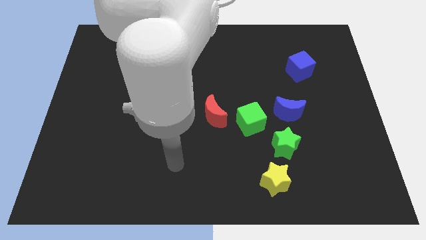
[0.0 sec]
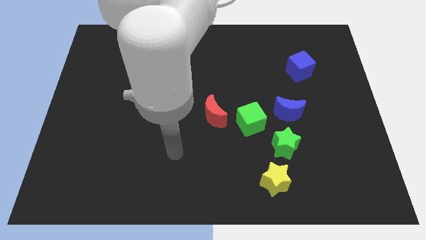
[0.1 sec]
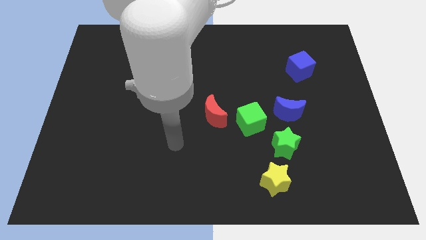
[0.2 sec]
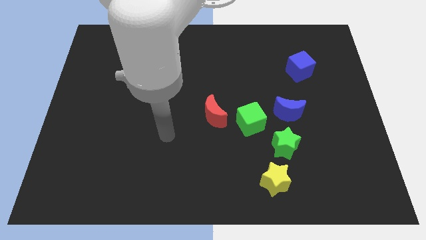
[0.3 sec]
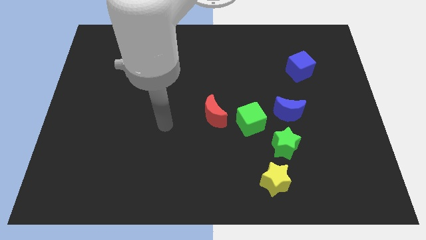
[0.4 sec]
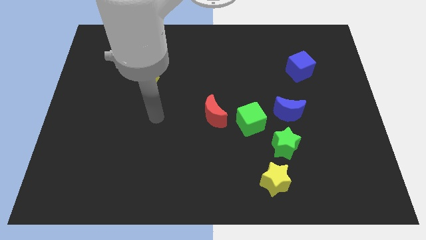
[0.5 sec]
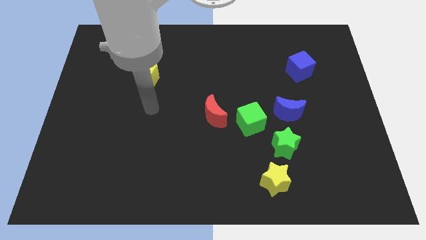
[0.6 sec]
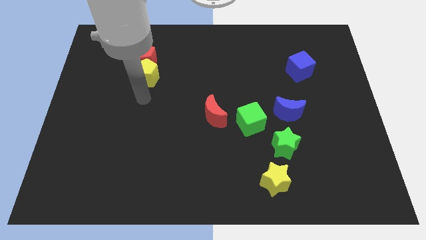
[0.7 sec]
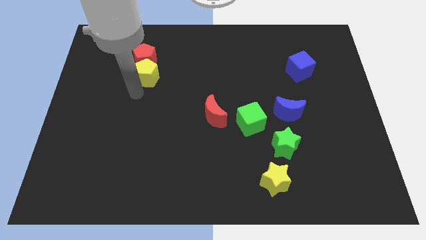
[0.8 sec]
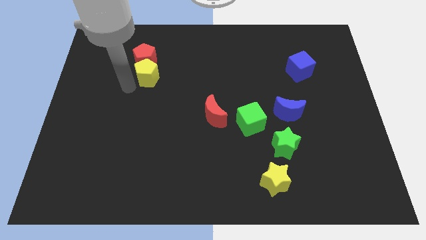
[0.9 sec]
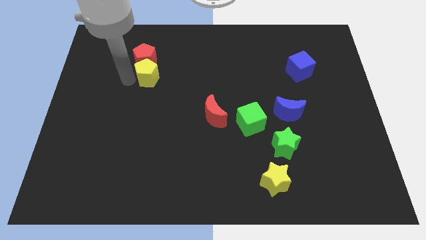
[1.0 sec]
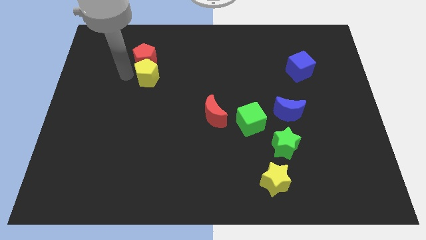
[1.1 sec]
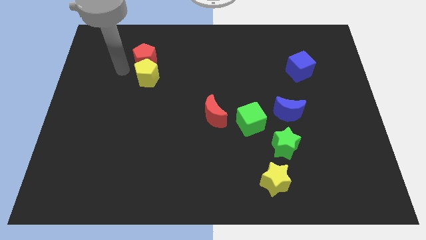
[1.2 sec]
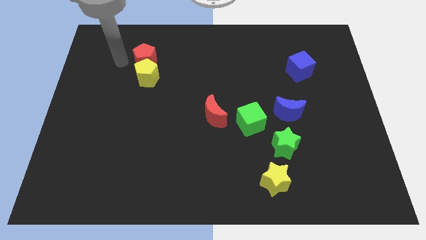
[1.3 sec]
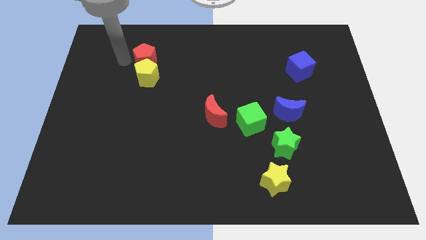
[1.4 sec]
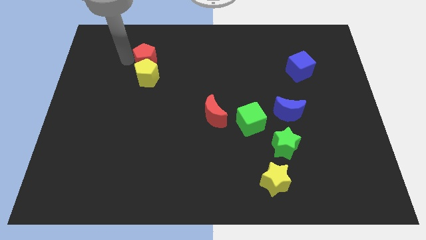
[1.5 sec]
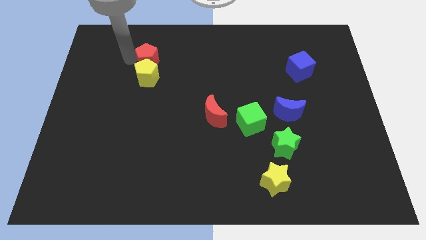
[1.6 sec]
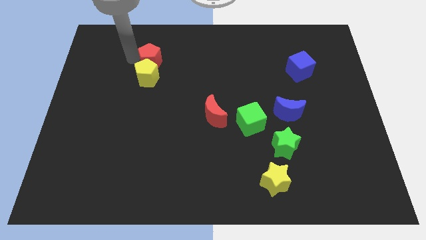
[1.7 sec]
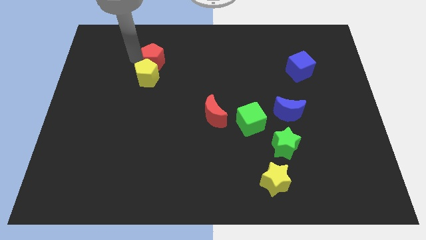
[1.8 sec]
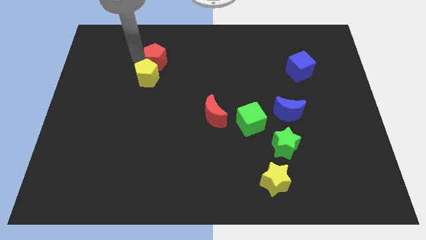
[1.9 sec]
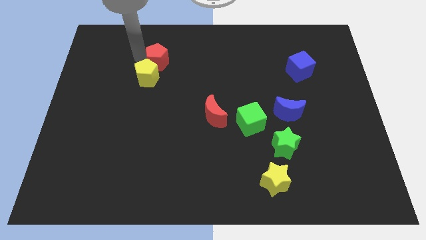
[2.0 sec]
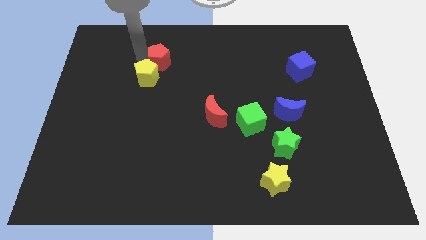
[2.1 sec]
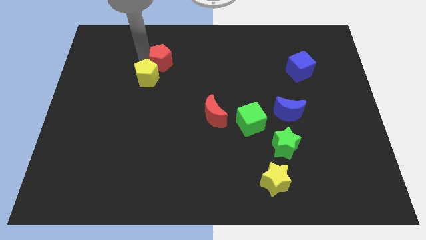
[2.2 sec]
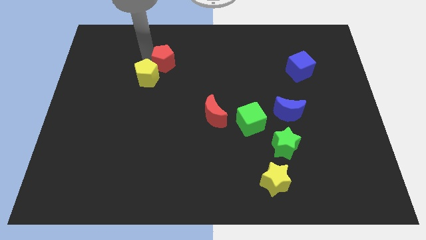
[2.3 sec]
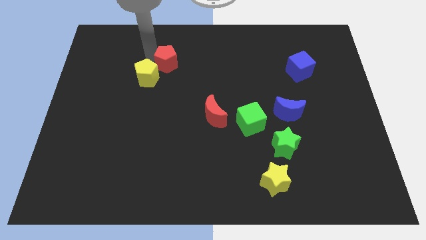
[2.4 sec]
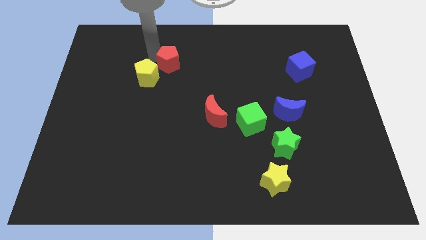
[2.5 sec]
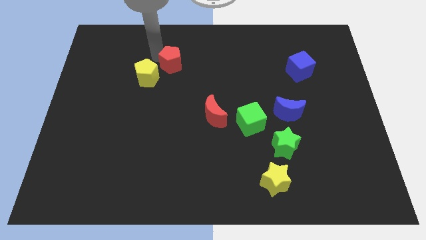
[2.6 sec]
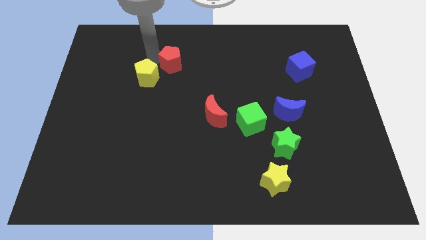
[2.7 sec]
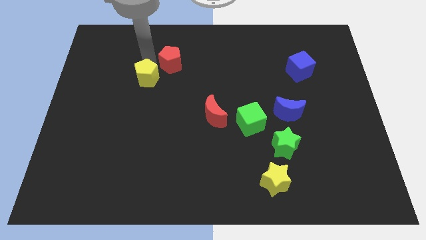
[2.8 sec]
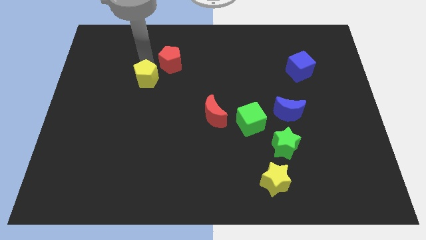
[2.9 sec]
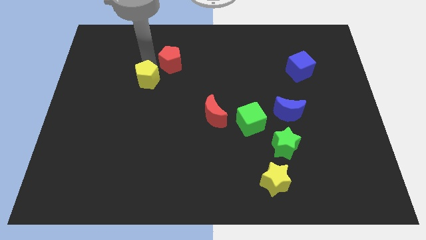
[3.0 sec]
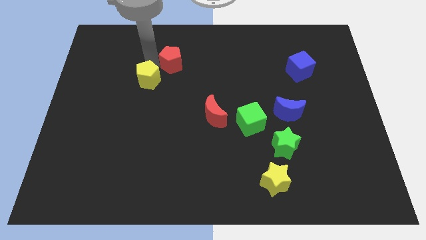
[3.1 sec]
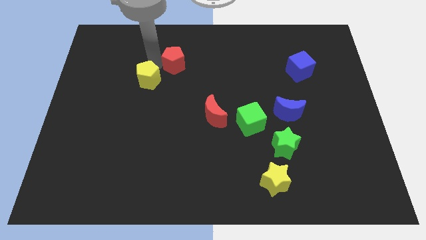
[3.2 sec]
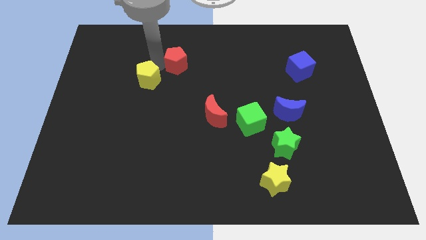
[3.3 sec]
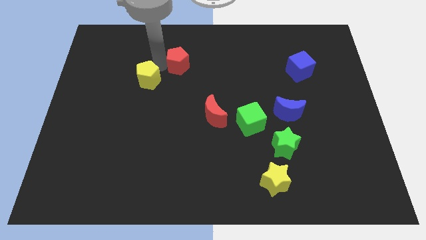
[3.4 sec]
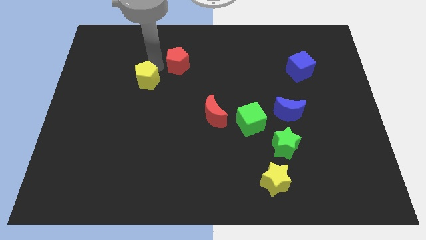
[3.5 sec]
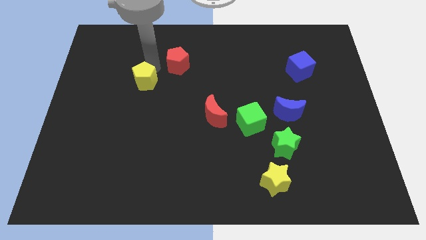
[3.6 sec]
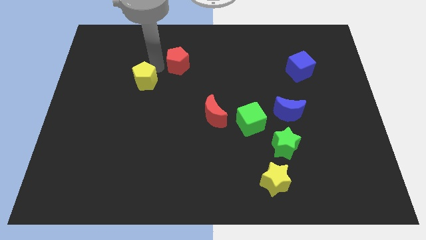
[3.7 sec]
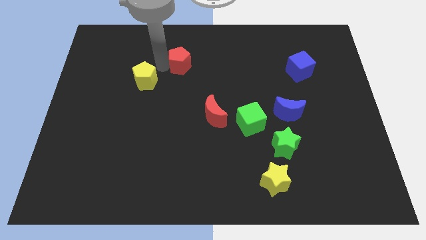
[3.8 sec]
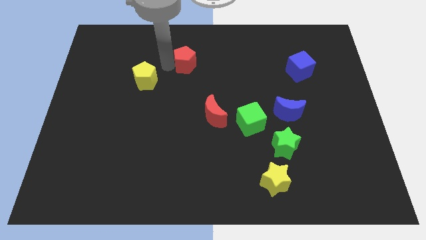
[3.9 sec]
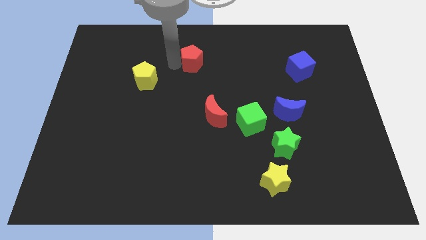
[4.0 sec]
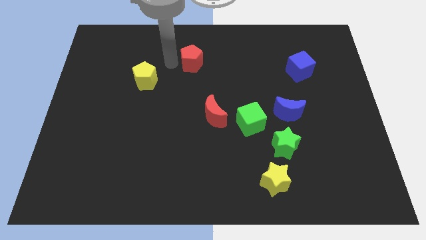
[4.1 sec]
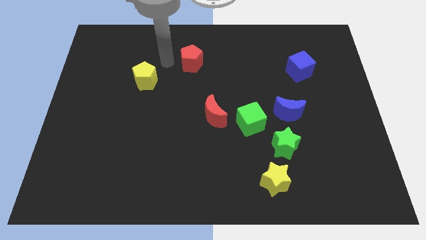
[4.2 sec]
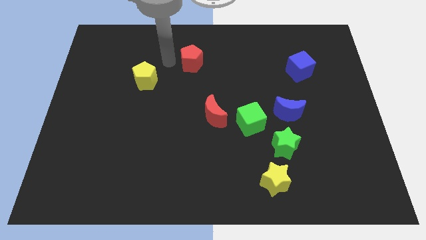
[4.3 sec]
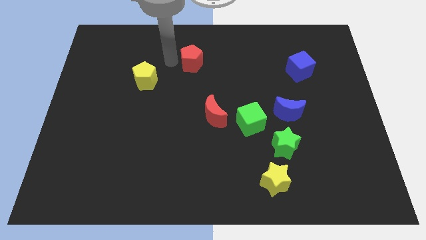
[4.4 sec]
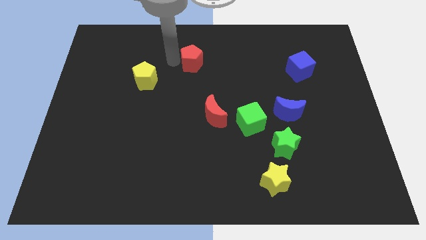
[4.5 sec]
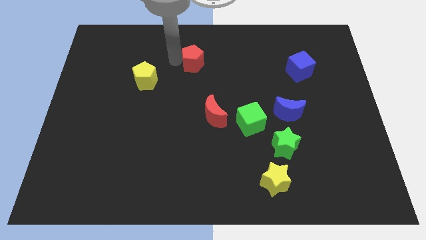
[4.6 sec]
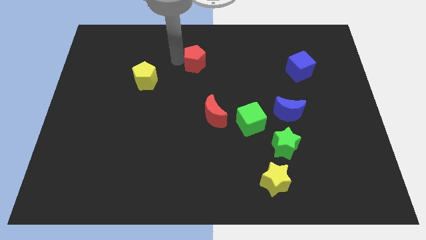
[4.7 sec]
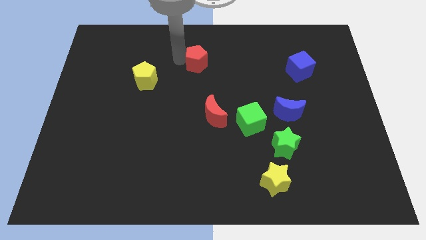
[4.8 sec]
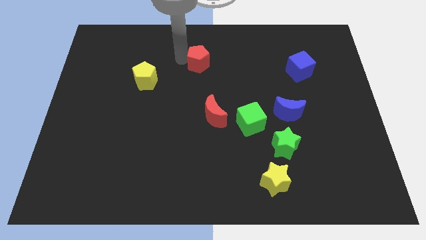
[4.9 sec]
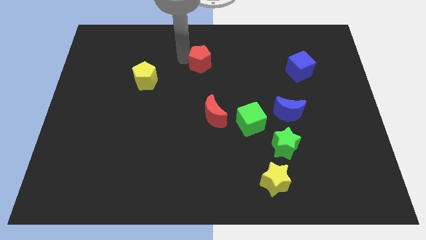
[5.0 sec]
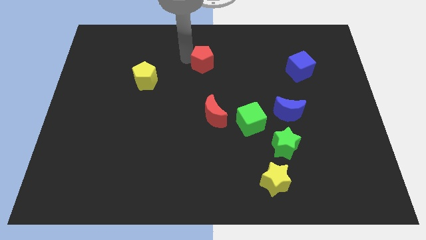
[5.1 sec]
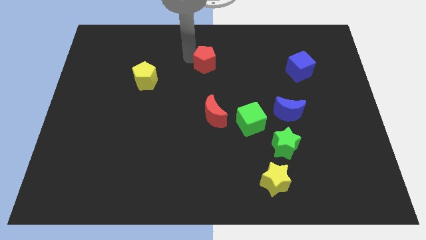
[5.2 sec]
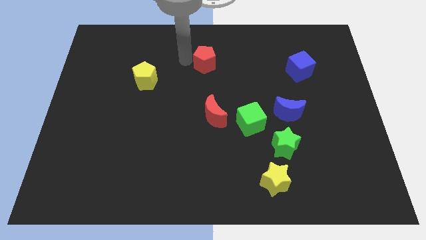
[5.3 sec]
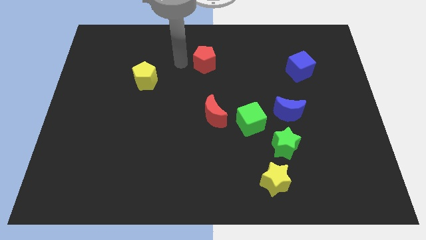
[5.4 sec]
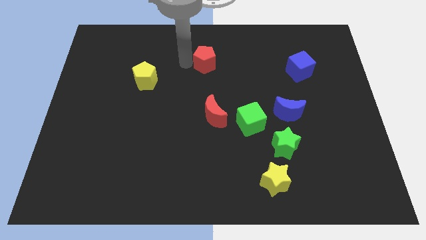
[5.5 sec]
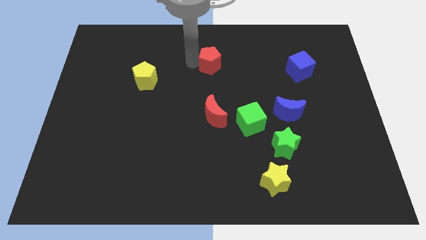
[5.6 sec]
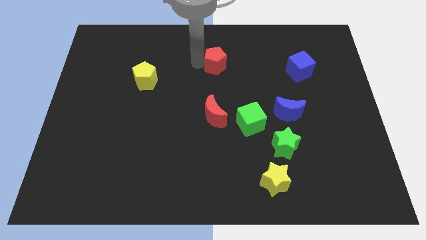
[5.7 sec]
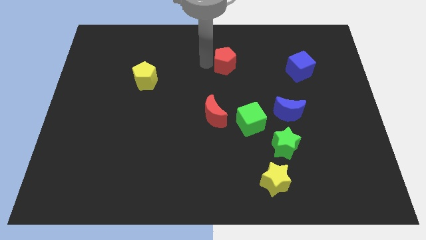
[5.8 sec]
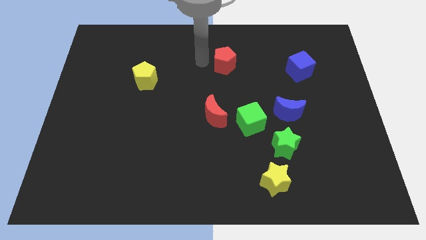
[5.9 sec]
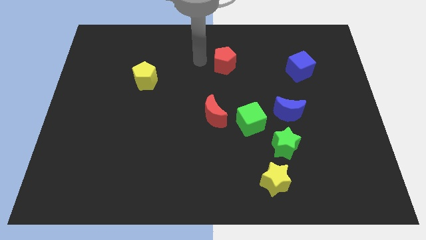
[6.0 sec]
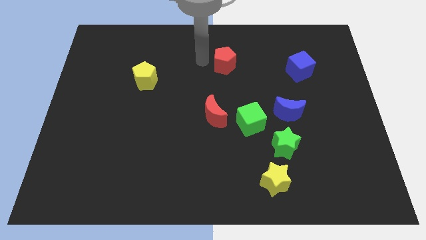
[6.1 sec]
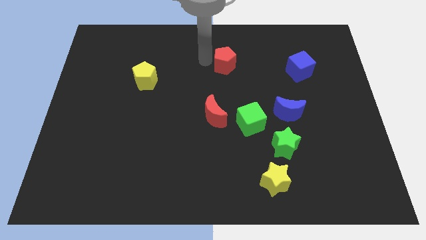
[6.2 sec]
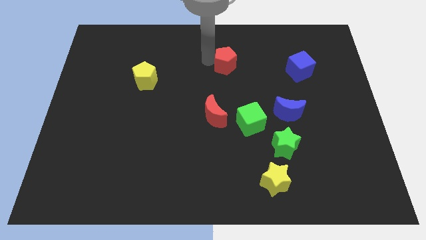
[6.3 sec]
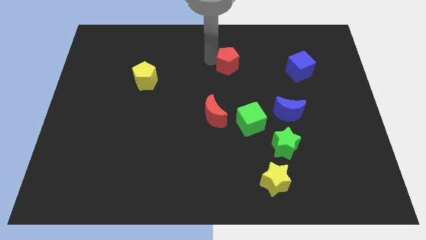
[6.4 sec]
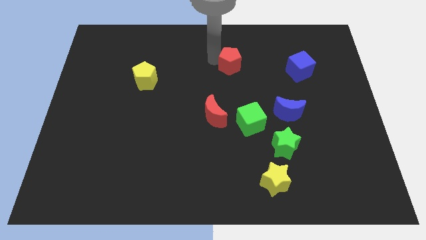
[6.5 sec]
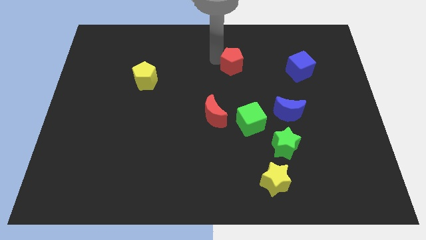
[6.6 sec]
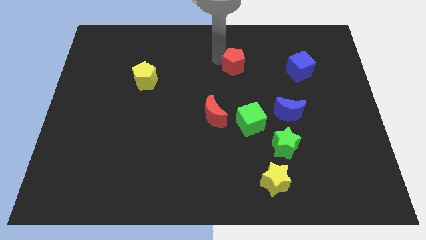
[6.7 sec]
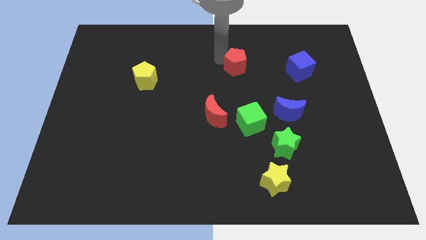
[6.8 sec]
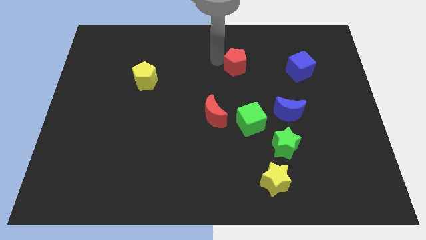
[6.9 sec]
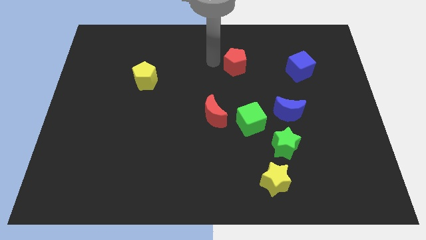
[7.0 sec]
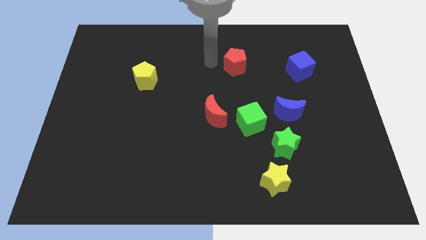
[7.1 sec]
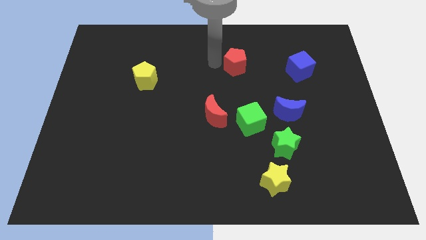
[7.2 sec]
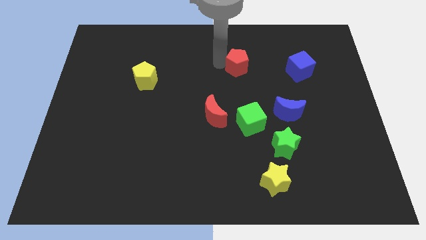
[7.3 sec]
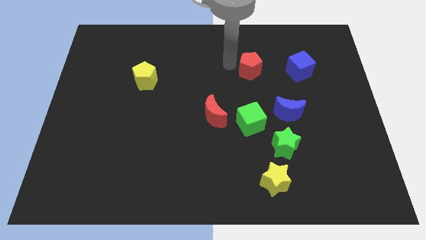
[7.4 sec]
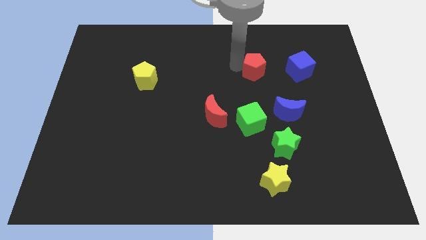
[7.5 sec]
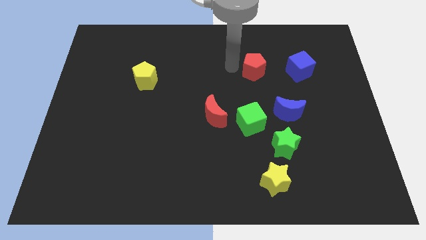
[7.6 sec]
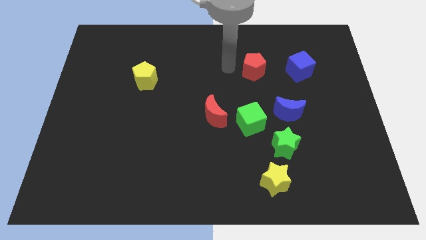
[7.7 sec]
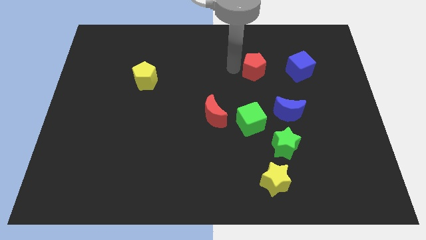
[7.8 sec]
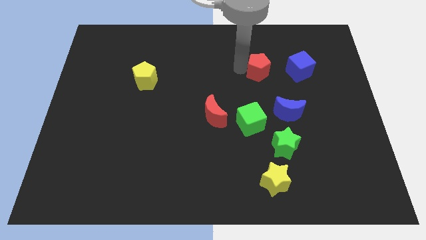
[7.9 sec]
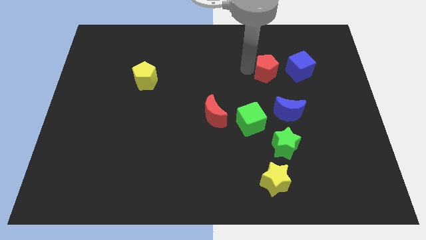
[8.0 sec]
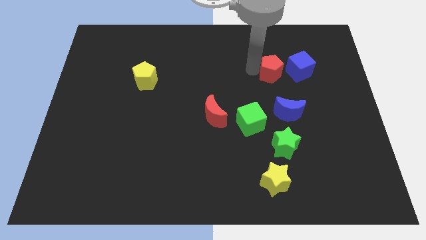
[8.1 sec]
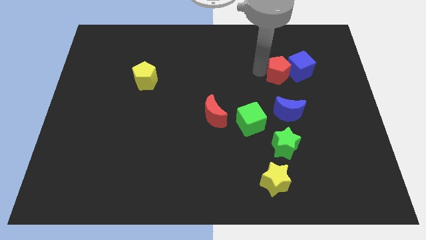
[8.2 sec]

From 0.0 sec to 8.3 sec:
slide the red pentagon next to the blue cube
